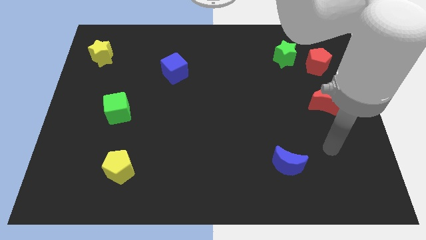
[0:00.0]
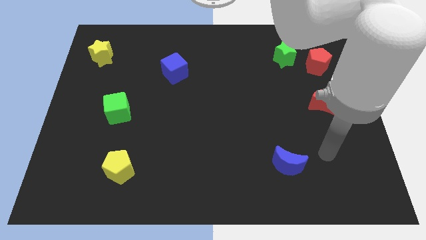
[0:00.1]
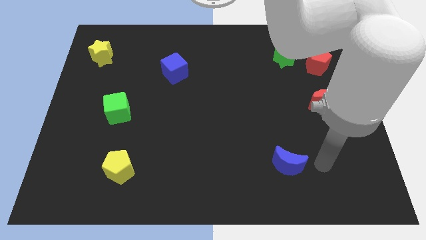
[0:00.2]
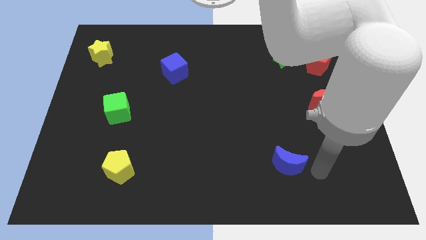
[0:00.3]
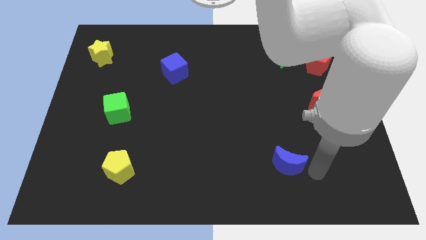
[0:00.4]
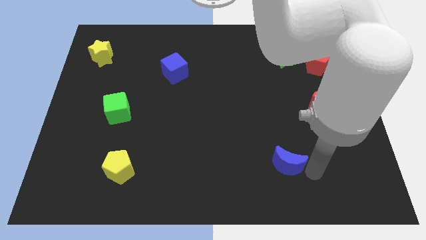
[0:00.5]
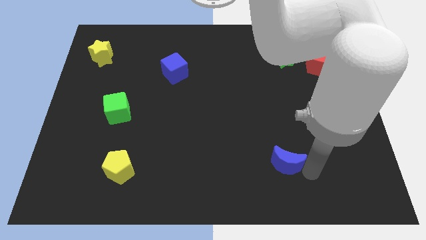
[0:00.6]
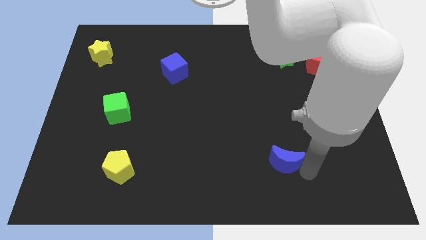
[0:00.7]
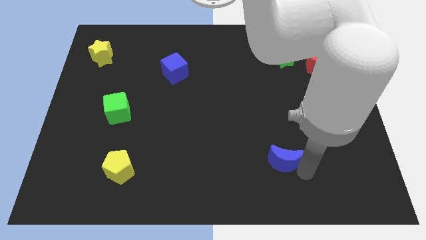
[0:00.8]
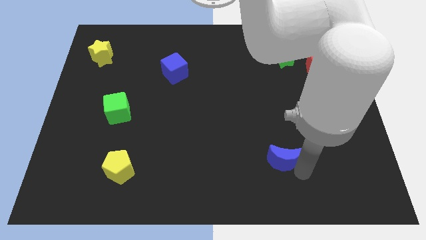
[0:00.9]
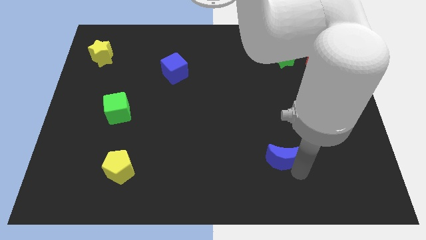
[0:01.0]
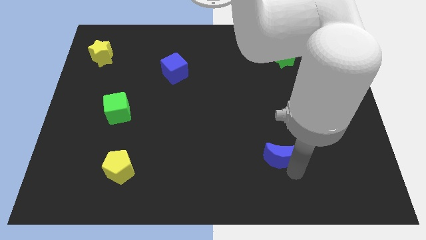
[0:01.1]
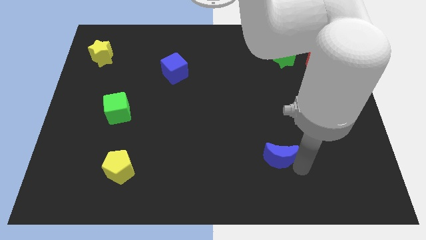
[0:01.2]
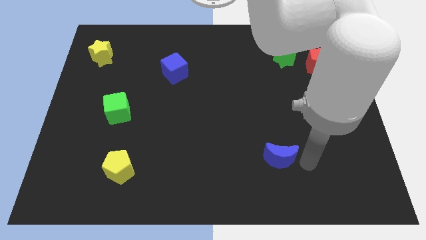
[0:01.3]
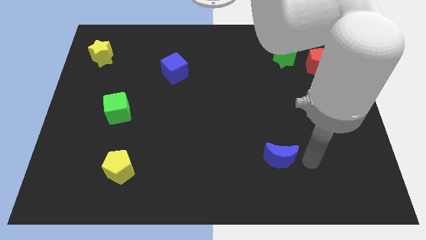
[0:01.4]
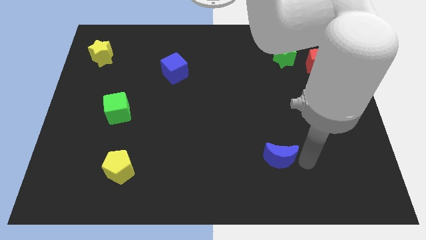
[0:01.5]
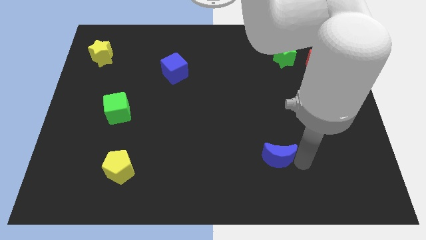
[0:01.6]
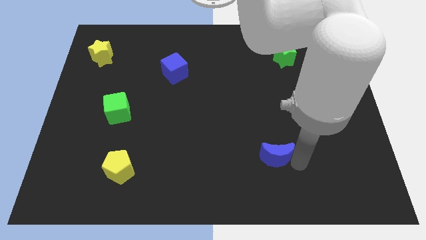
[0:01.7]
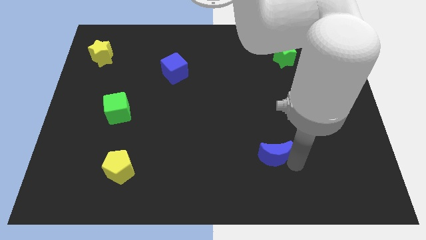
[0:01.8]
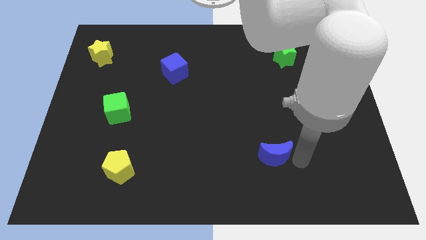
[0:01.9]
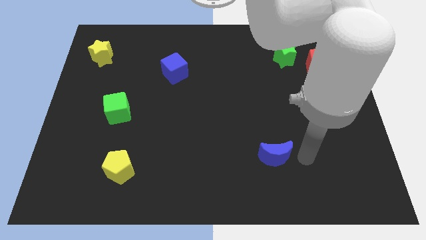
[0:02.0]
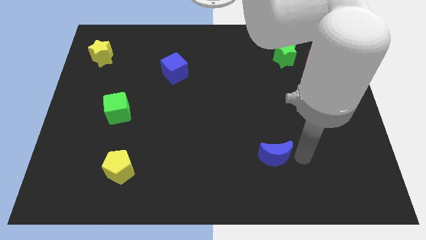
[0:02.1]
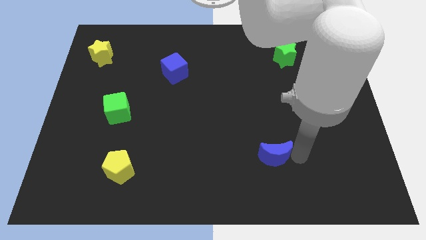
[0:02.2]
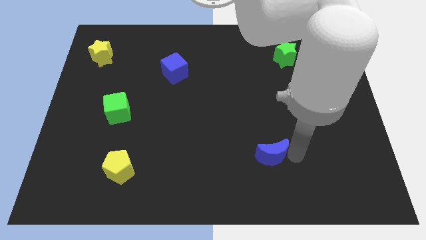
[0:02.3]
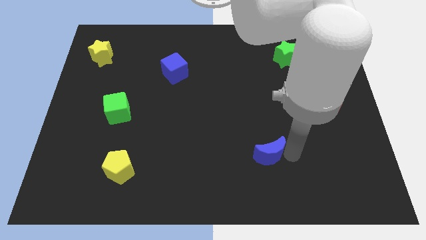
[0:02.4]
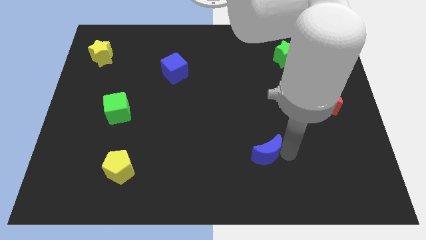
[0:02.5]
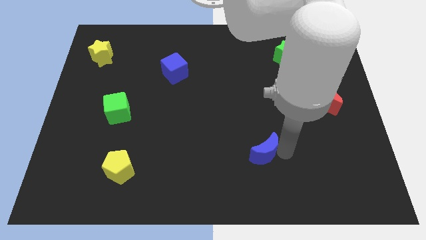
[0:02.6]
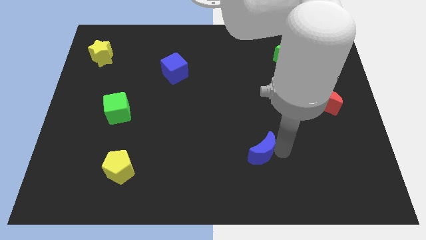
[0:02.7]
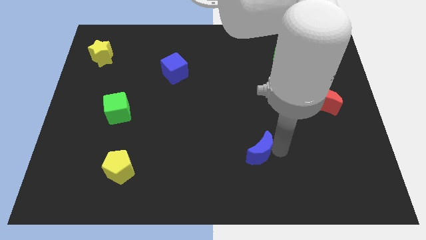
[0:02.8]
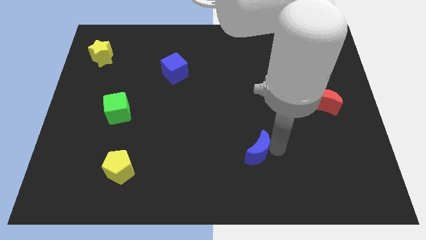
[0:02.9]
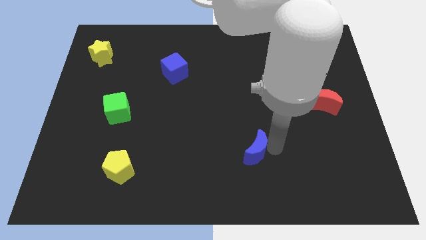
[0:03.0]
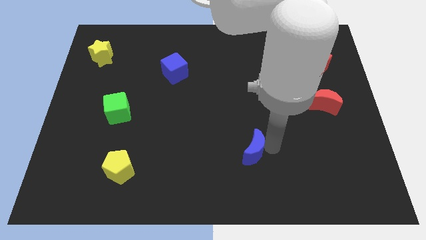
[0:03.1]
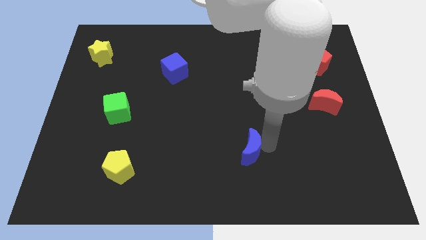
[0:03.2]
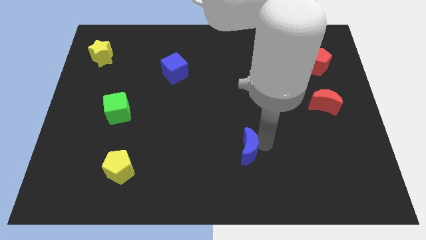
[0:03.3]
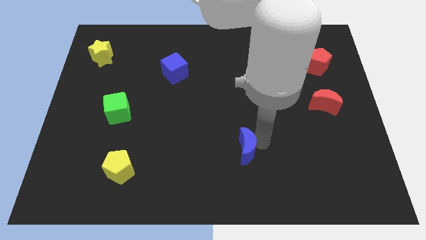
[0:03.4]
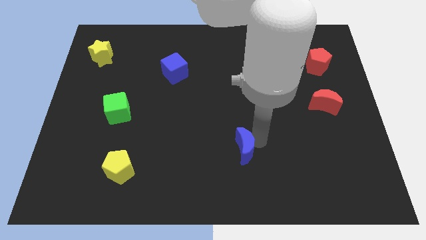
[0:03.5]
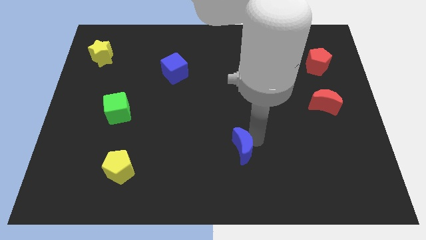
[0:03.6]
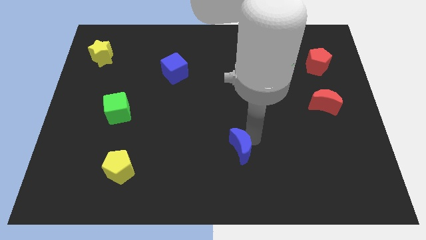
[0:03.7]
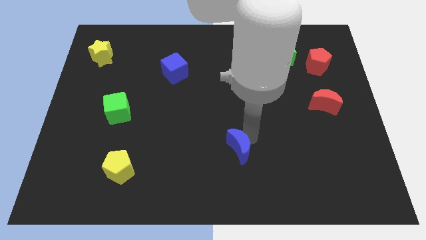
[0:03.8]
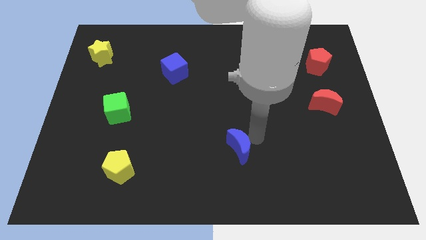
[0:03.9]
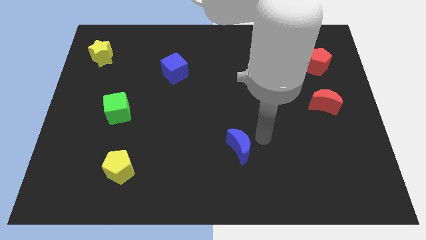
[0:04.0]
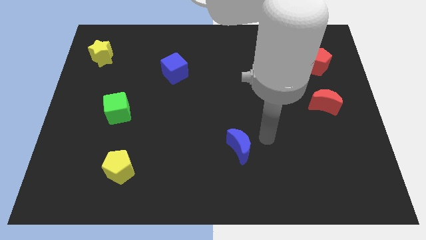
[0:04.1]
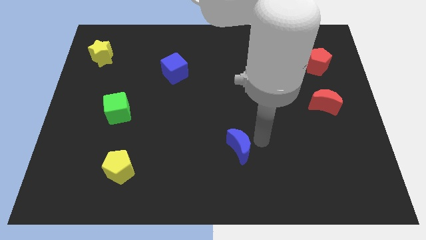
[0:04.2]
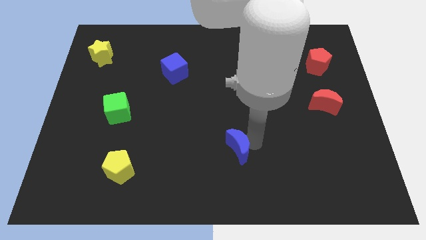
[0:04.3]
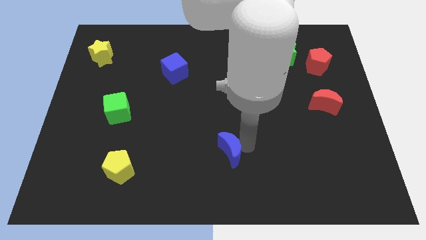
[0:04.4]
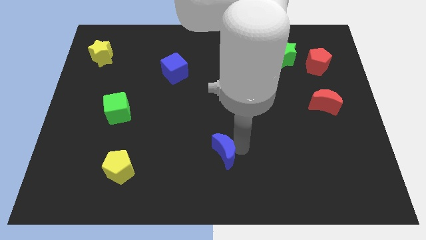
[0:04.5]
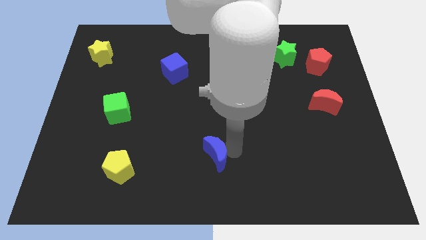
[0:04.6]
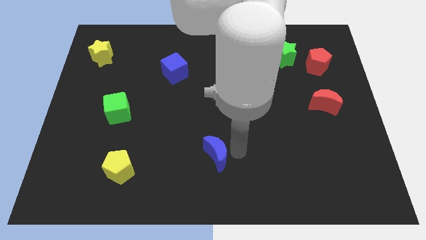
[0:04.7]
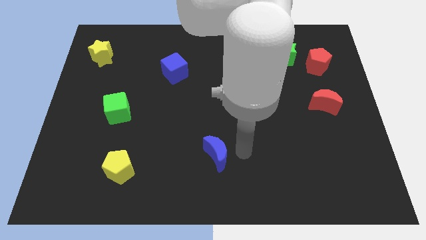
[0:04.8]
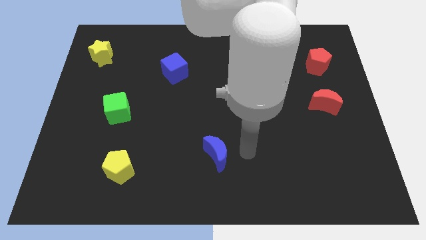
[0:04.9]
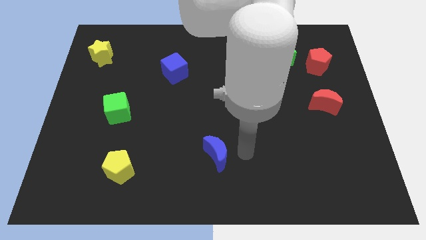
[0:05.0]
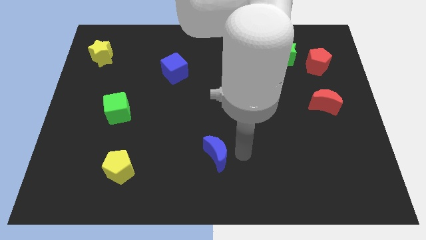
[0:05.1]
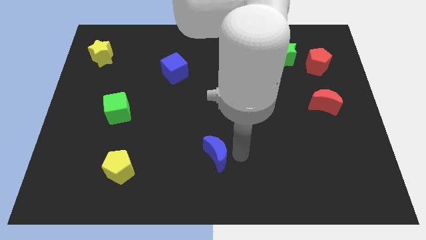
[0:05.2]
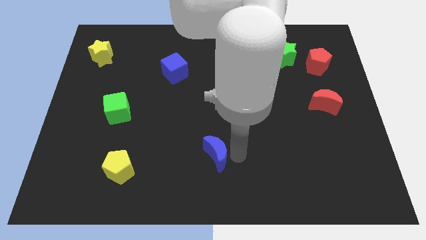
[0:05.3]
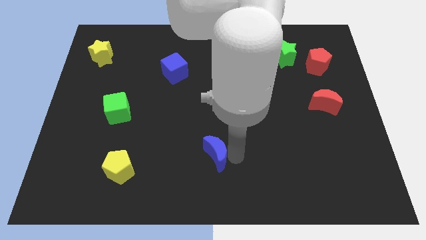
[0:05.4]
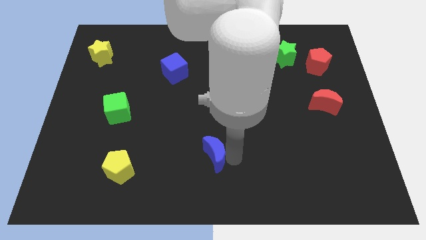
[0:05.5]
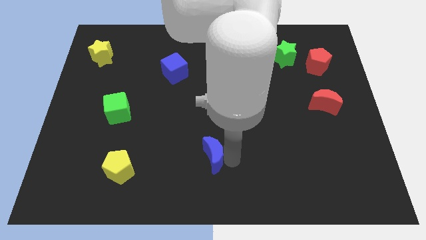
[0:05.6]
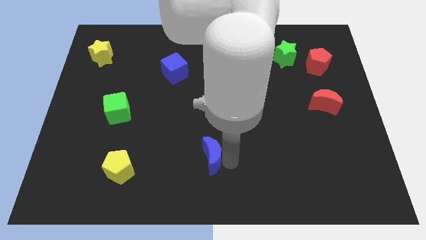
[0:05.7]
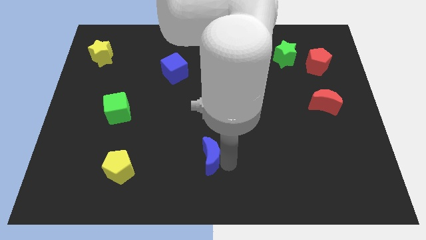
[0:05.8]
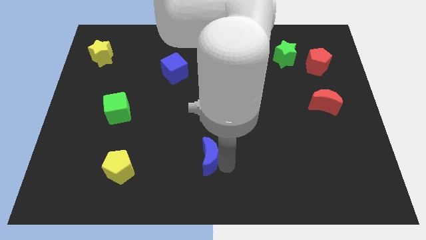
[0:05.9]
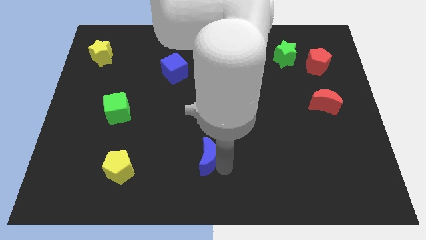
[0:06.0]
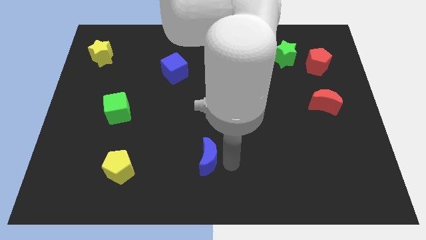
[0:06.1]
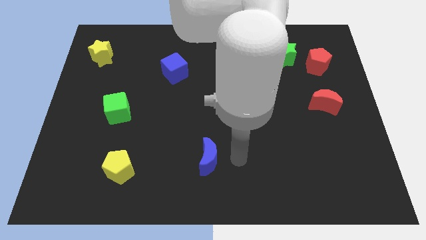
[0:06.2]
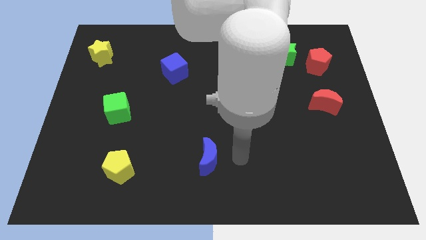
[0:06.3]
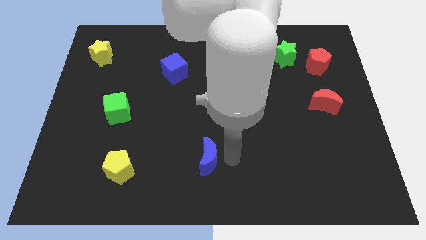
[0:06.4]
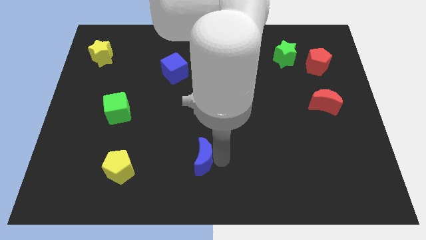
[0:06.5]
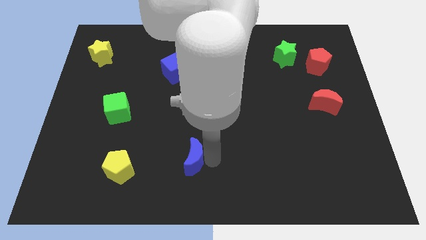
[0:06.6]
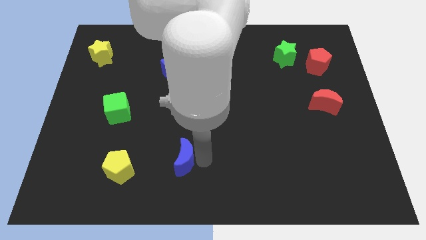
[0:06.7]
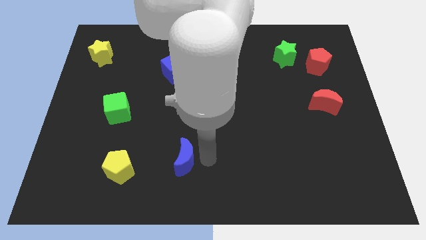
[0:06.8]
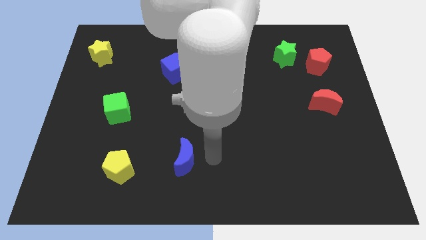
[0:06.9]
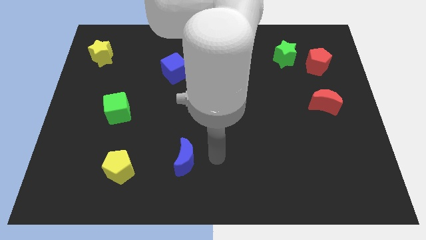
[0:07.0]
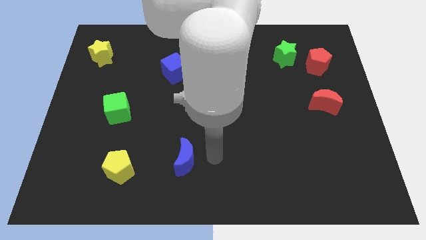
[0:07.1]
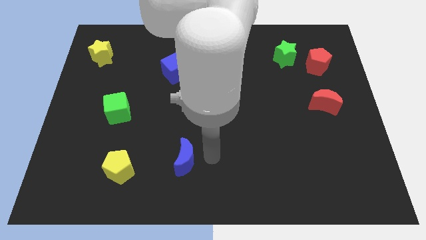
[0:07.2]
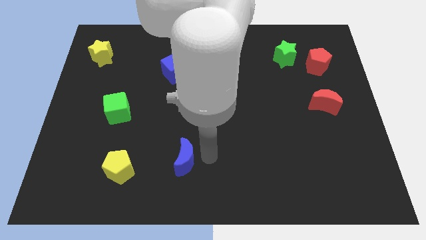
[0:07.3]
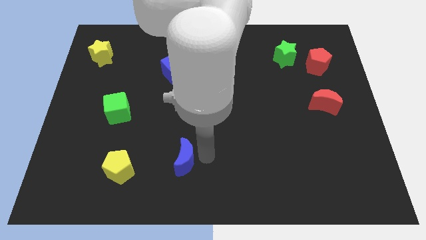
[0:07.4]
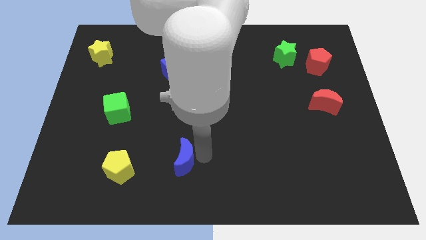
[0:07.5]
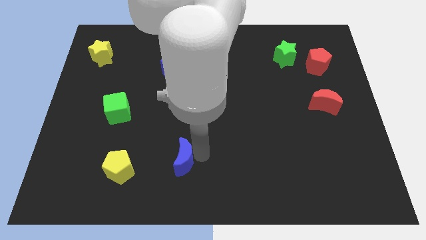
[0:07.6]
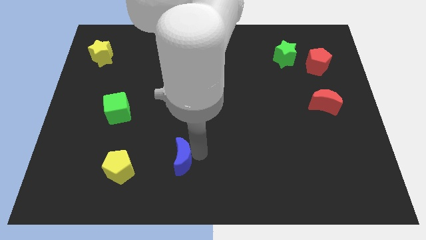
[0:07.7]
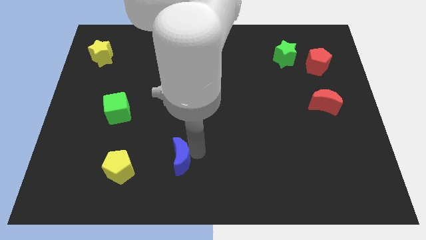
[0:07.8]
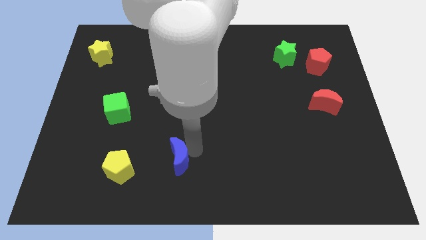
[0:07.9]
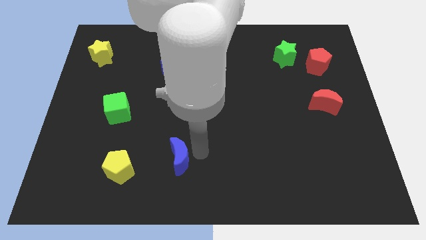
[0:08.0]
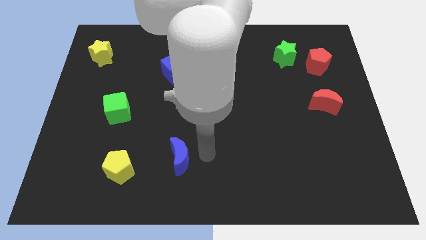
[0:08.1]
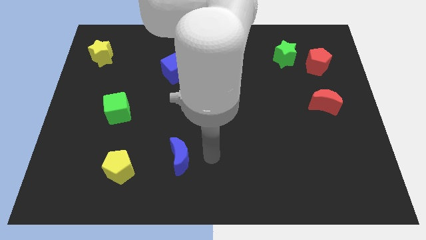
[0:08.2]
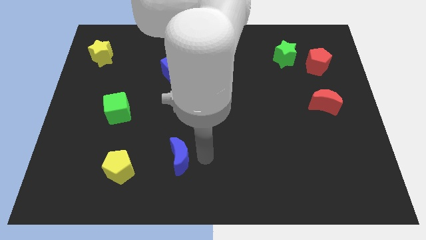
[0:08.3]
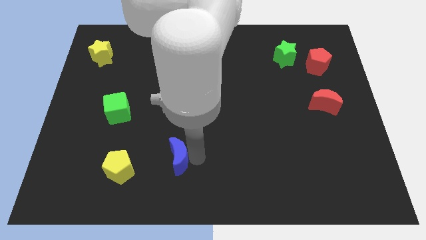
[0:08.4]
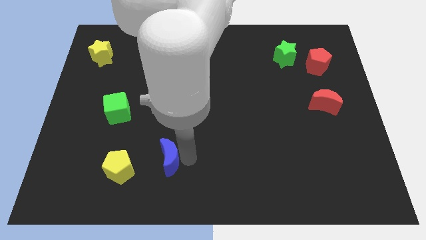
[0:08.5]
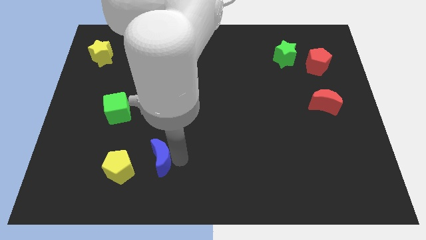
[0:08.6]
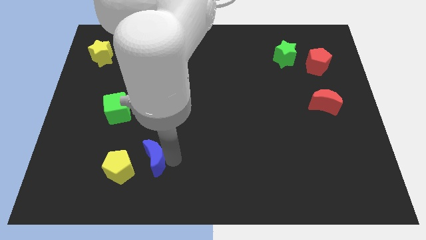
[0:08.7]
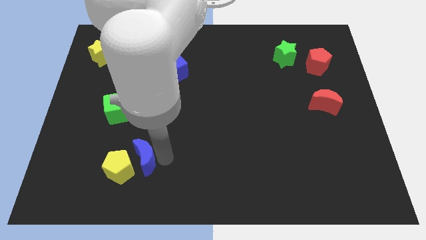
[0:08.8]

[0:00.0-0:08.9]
push the blue moon close to the yellow pentagon
